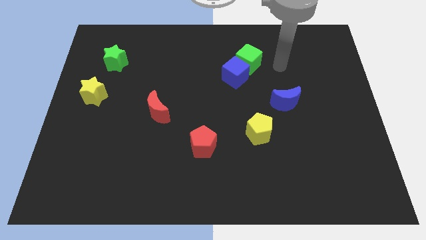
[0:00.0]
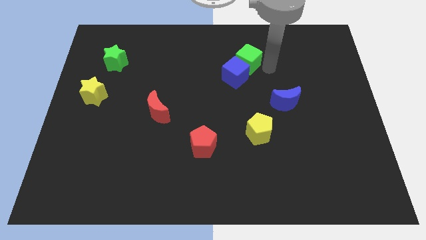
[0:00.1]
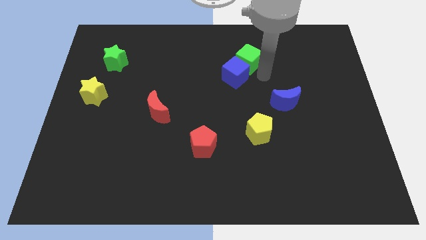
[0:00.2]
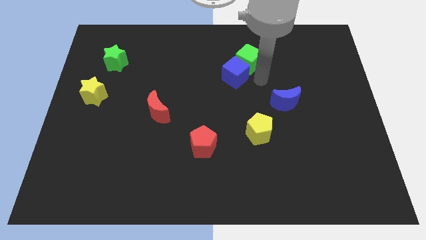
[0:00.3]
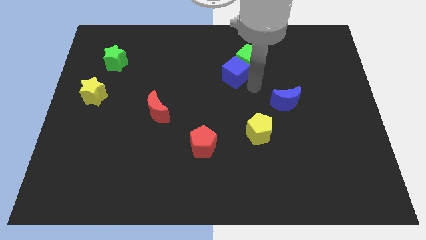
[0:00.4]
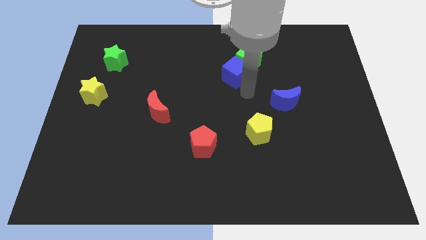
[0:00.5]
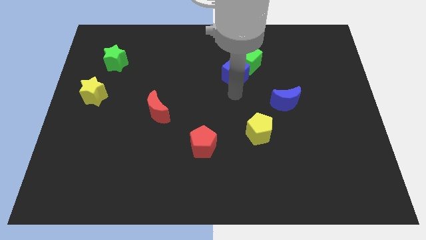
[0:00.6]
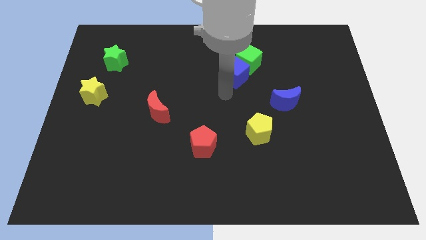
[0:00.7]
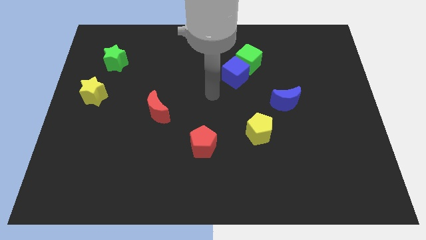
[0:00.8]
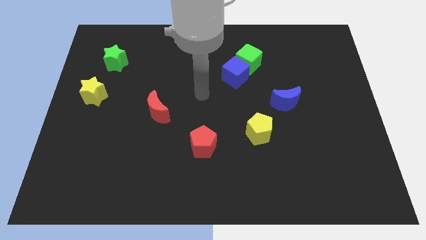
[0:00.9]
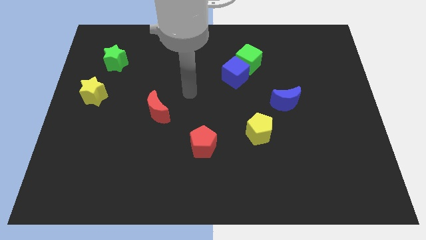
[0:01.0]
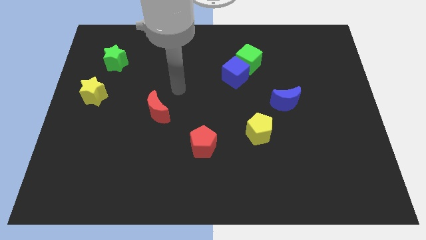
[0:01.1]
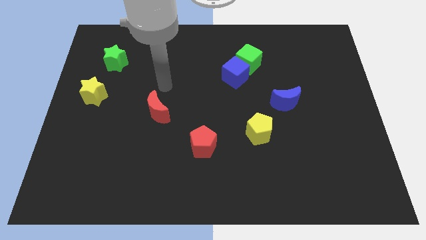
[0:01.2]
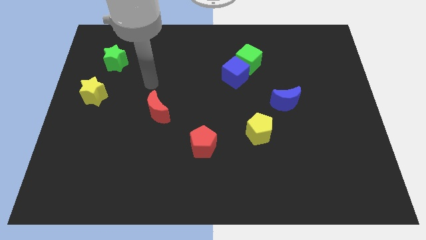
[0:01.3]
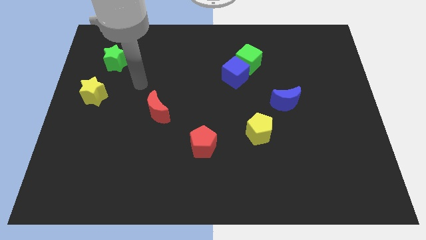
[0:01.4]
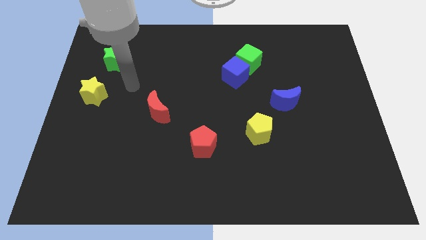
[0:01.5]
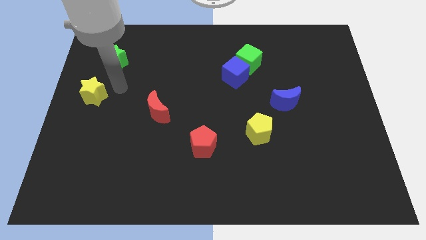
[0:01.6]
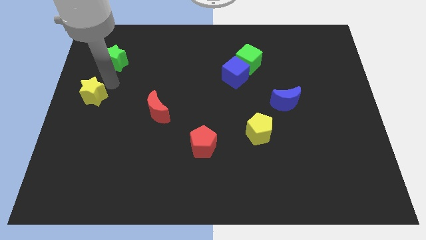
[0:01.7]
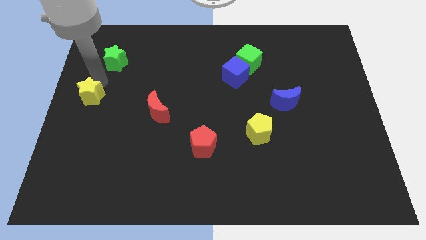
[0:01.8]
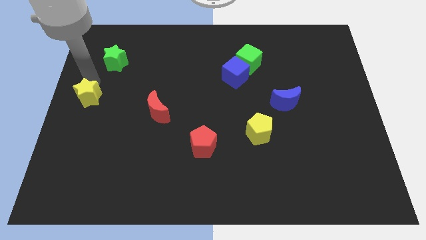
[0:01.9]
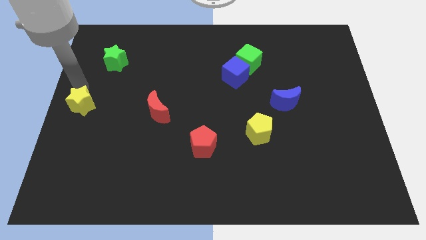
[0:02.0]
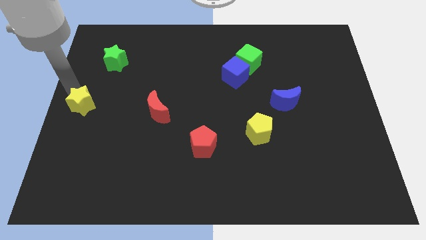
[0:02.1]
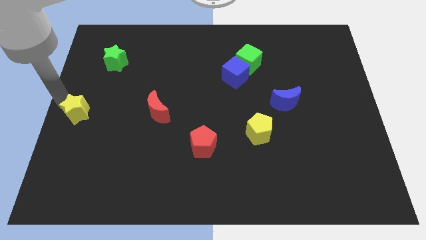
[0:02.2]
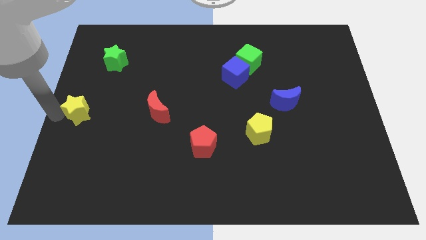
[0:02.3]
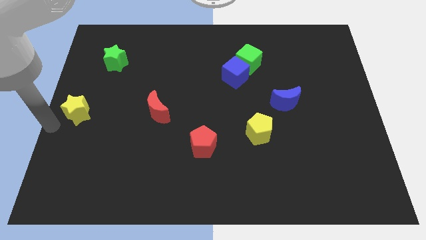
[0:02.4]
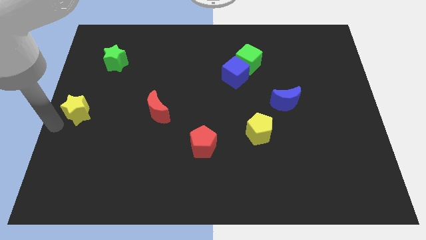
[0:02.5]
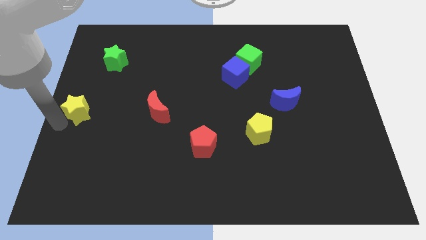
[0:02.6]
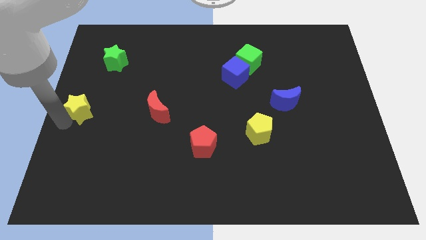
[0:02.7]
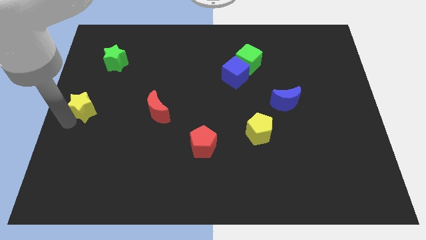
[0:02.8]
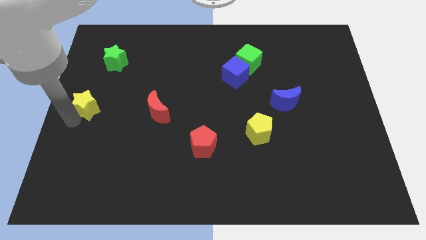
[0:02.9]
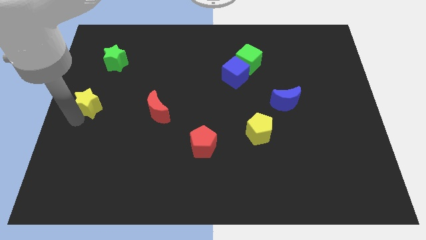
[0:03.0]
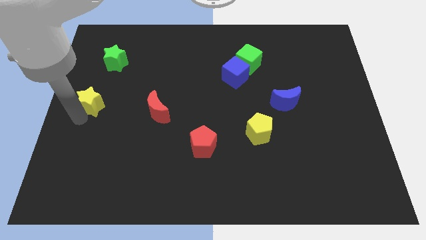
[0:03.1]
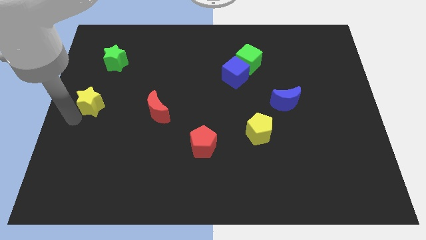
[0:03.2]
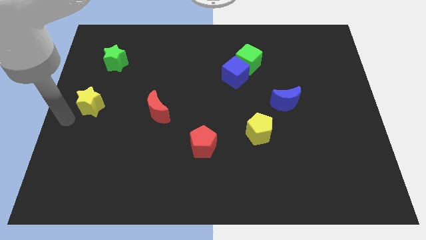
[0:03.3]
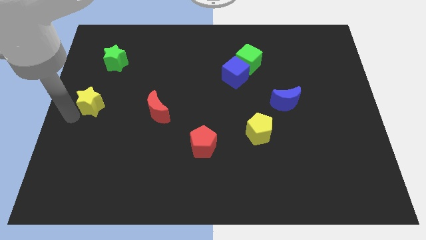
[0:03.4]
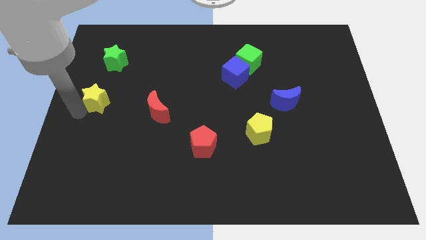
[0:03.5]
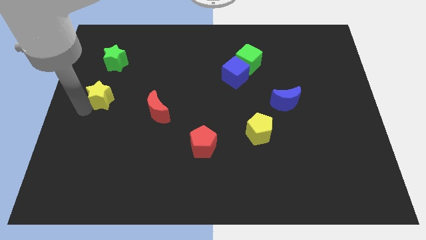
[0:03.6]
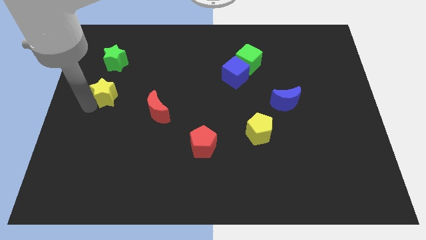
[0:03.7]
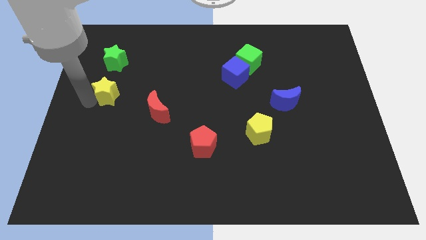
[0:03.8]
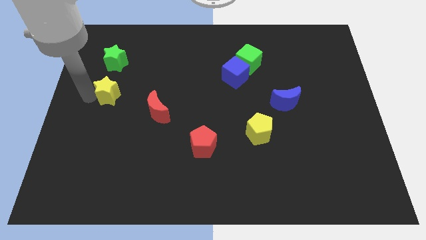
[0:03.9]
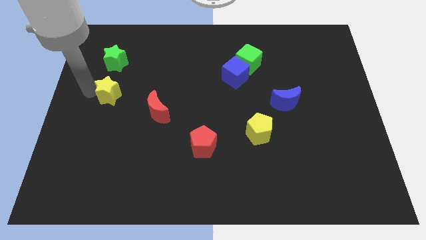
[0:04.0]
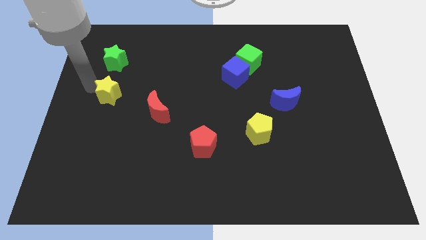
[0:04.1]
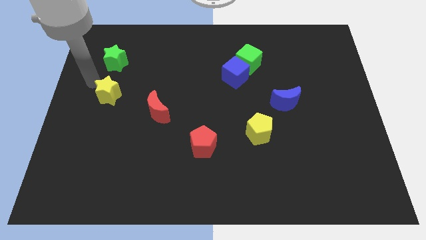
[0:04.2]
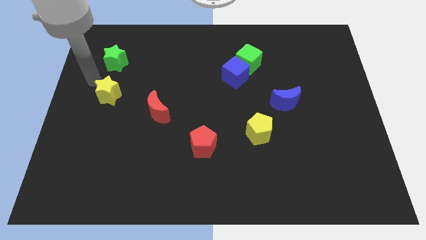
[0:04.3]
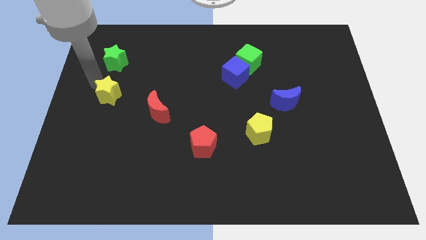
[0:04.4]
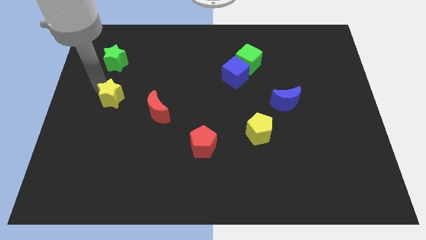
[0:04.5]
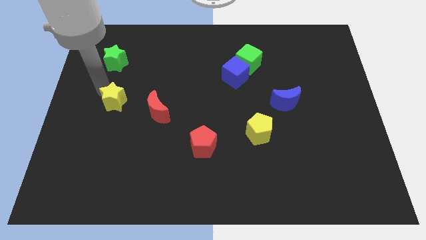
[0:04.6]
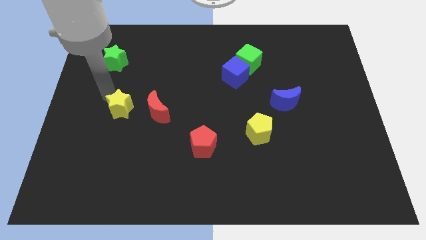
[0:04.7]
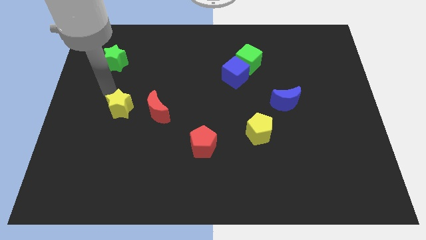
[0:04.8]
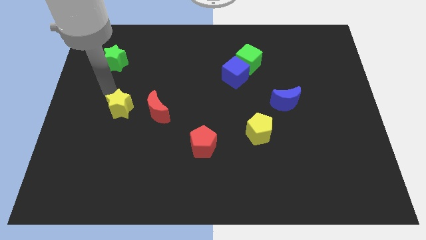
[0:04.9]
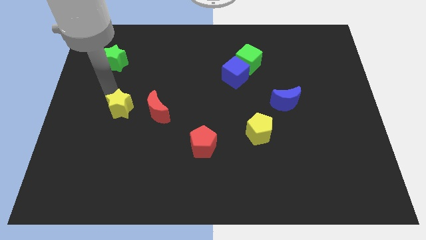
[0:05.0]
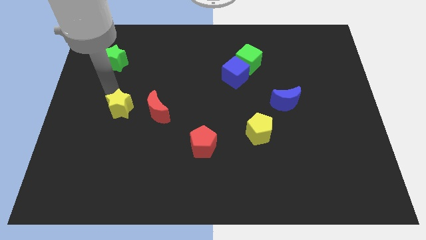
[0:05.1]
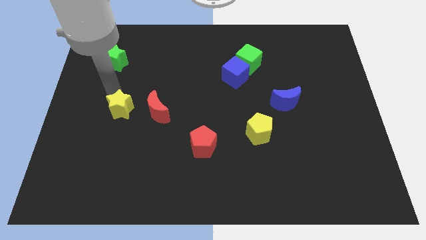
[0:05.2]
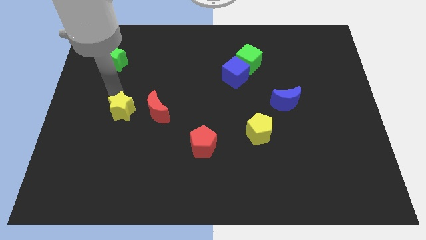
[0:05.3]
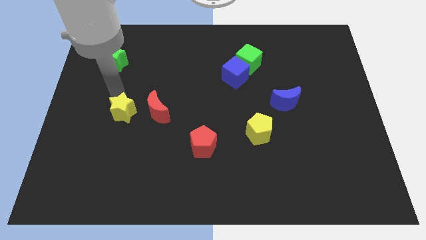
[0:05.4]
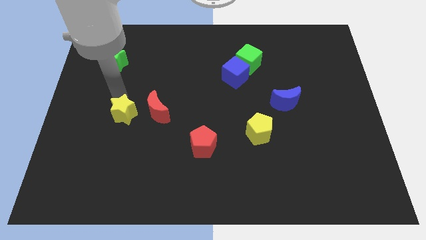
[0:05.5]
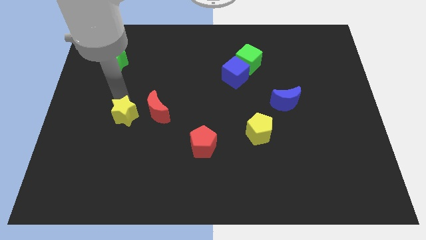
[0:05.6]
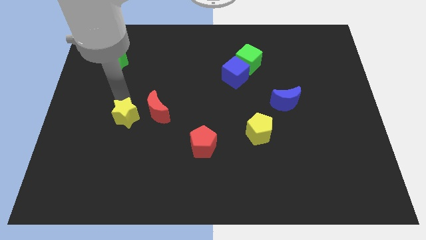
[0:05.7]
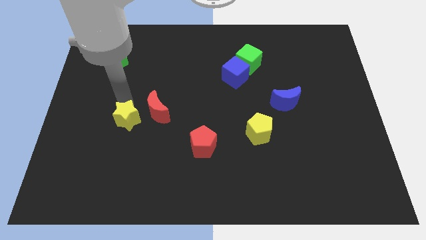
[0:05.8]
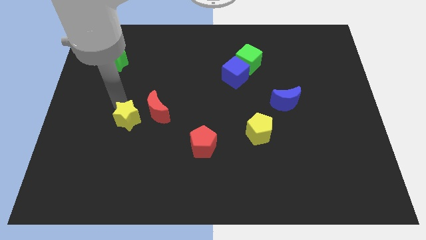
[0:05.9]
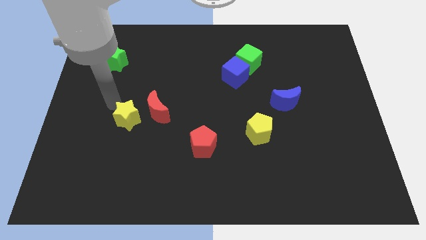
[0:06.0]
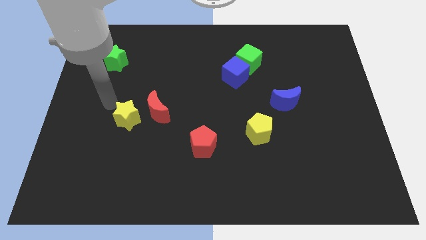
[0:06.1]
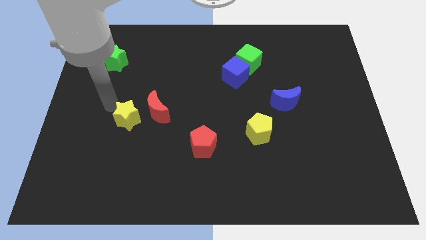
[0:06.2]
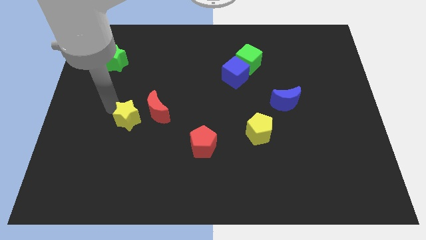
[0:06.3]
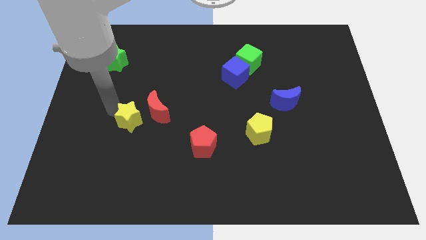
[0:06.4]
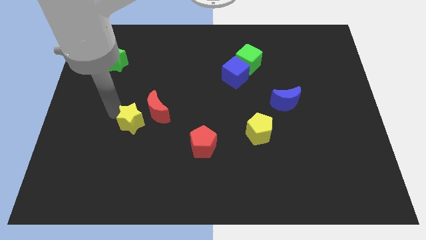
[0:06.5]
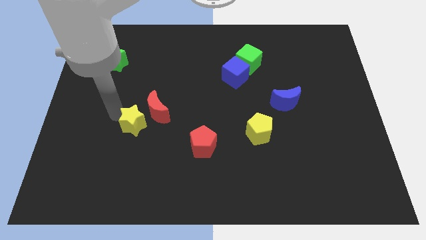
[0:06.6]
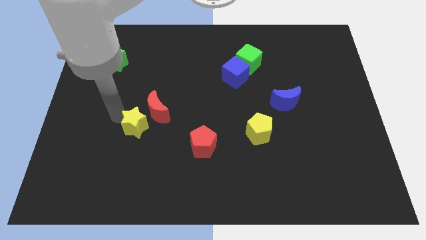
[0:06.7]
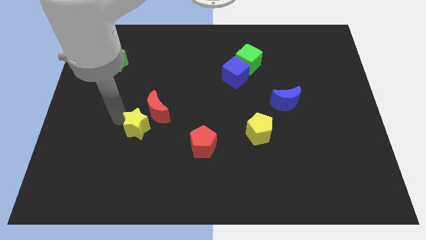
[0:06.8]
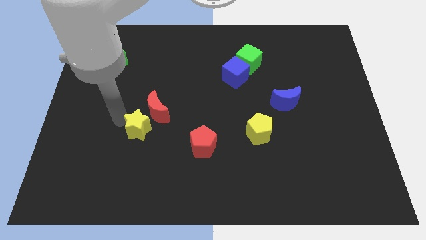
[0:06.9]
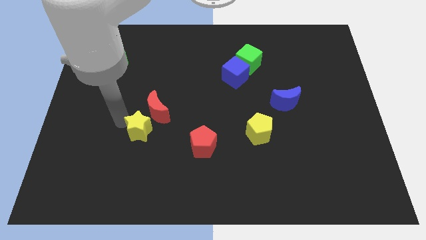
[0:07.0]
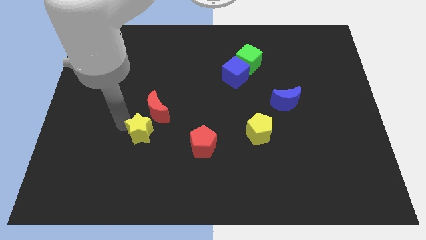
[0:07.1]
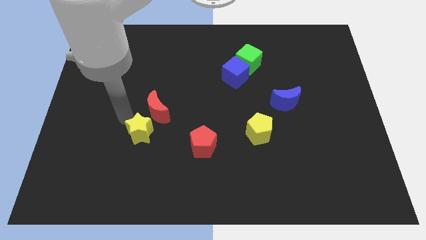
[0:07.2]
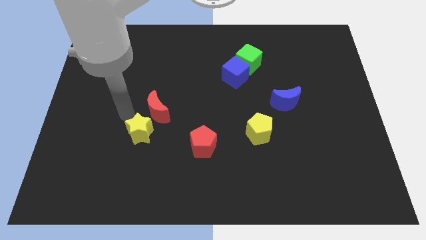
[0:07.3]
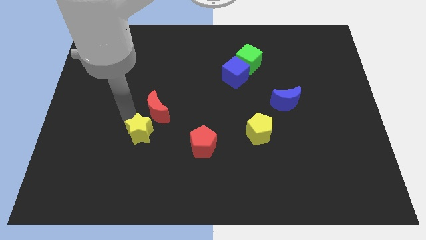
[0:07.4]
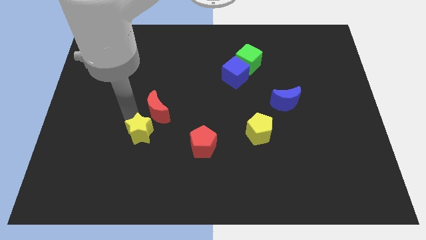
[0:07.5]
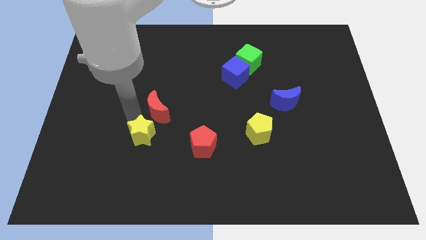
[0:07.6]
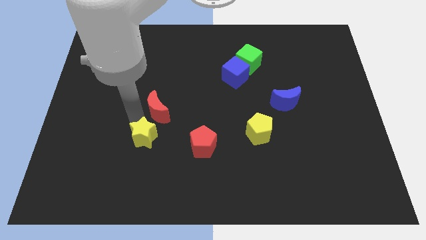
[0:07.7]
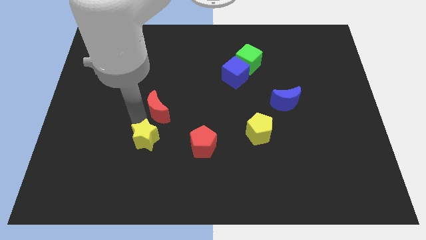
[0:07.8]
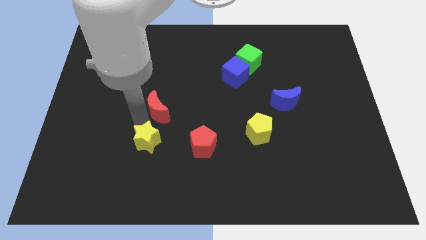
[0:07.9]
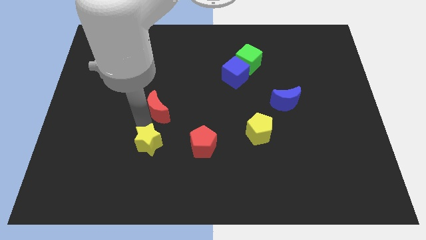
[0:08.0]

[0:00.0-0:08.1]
push the yellow star down and right
